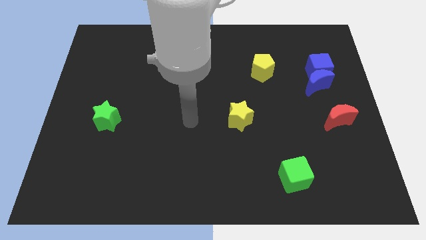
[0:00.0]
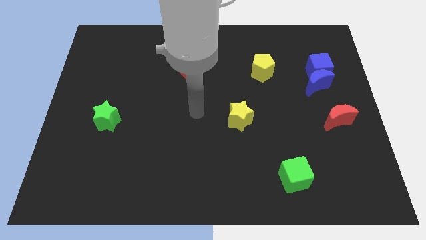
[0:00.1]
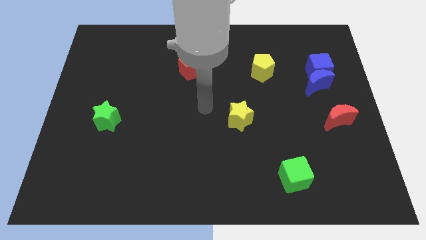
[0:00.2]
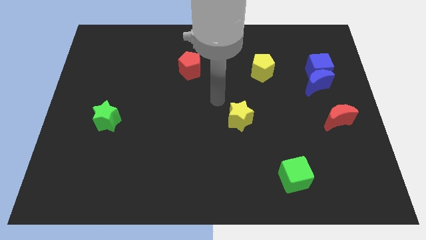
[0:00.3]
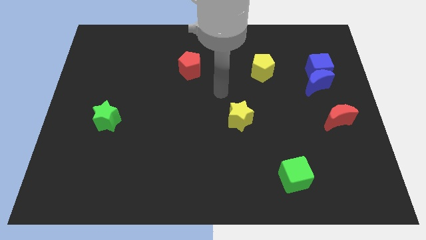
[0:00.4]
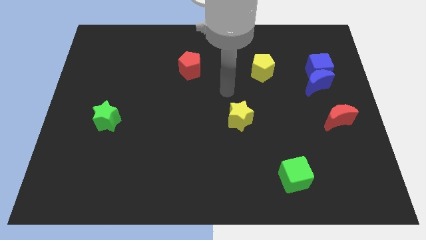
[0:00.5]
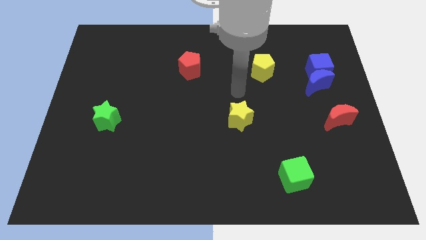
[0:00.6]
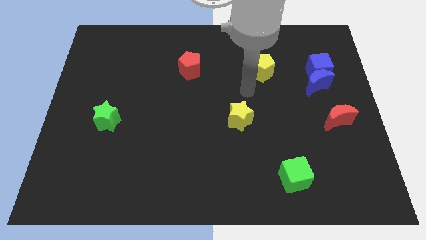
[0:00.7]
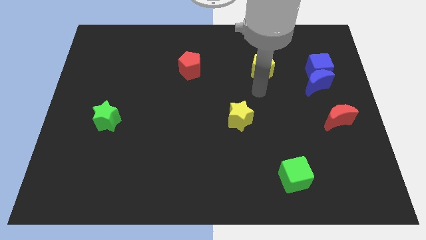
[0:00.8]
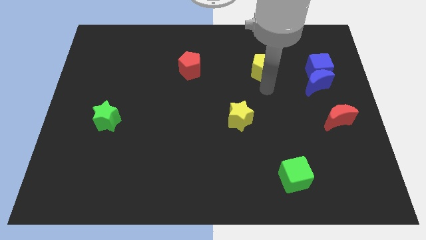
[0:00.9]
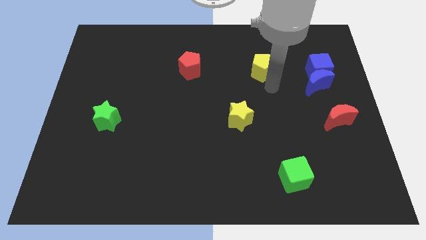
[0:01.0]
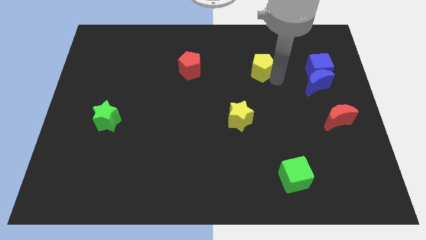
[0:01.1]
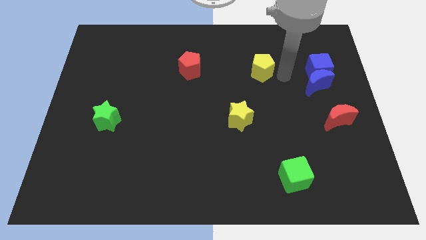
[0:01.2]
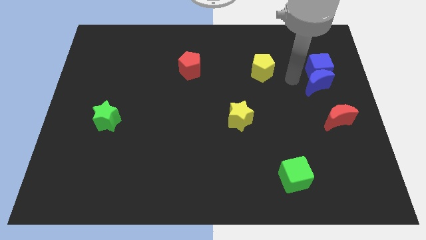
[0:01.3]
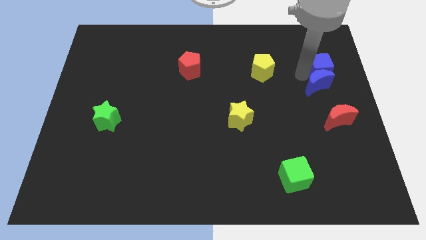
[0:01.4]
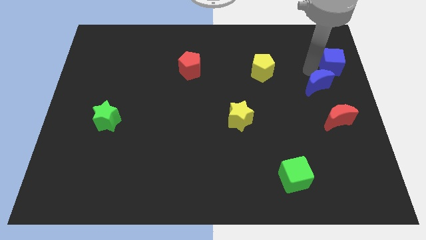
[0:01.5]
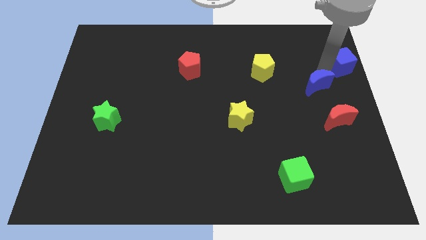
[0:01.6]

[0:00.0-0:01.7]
separate the blue moon from the blue cube

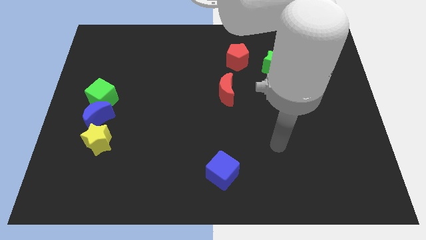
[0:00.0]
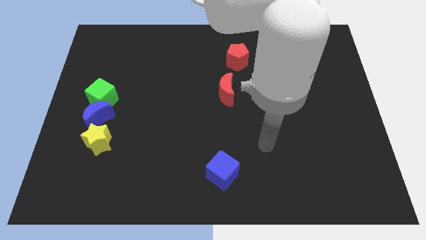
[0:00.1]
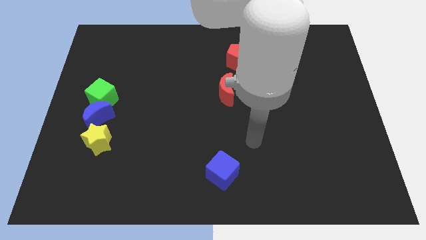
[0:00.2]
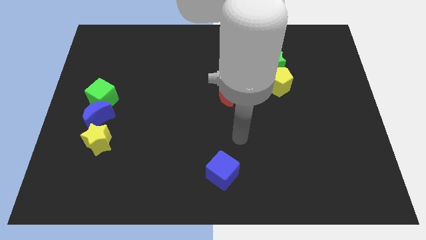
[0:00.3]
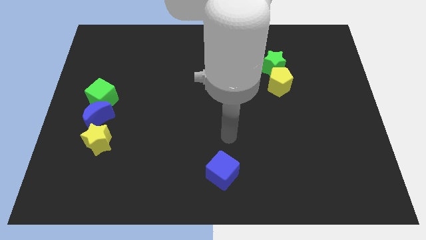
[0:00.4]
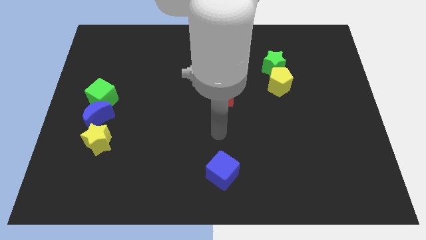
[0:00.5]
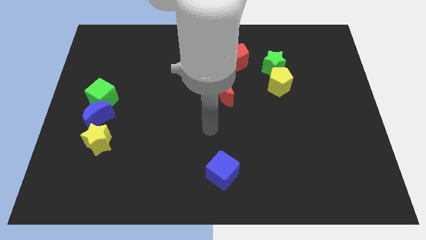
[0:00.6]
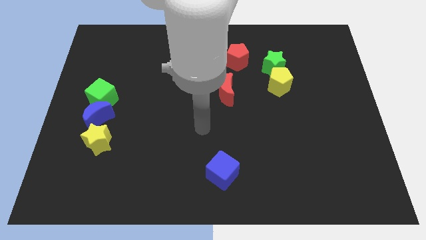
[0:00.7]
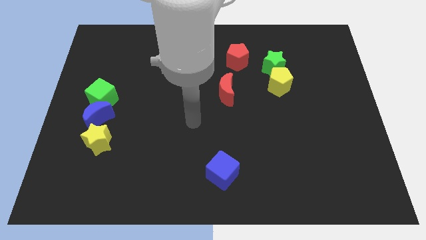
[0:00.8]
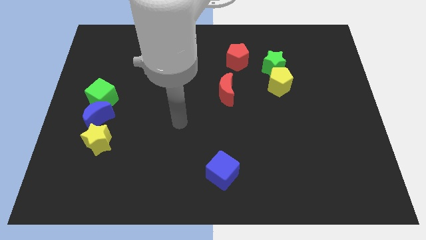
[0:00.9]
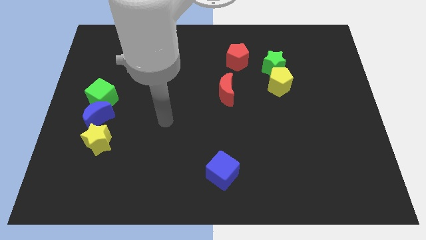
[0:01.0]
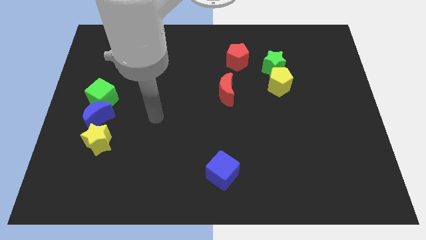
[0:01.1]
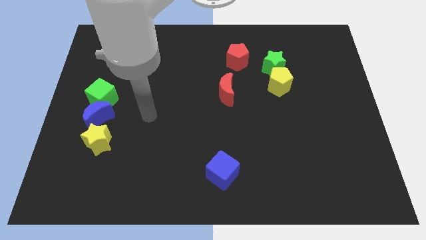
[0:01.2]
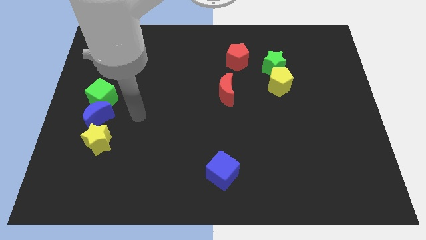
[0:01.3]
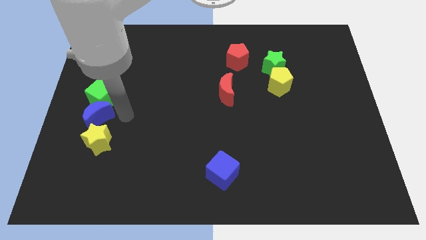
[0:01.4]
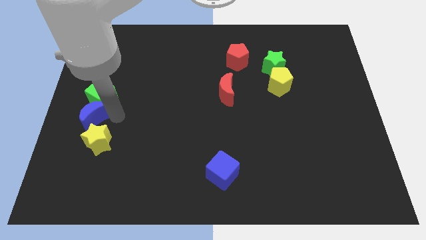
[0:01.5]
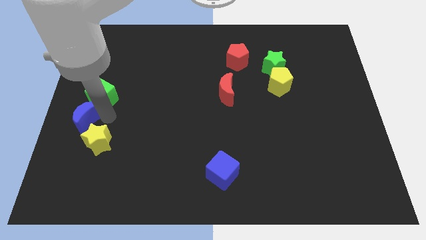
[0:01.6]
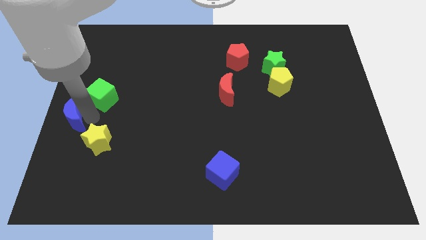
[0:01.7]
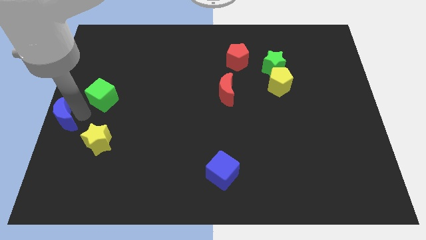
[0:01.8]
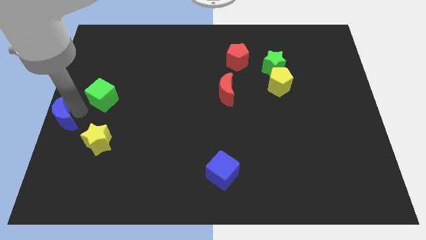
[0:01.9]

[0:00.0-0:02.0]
move the green cube away from the blue moon

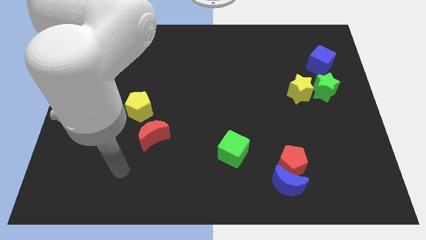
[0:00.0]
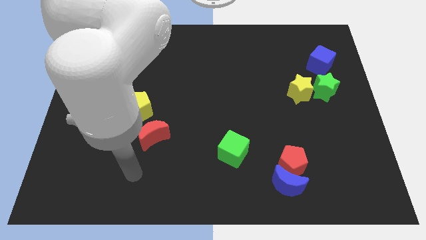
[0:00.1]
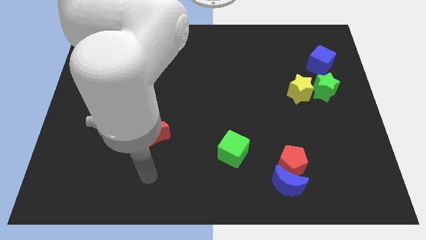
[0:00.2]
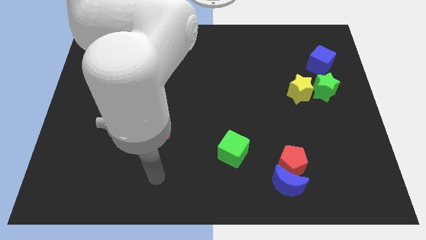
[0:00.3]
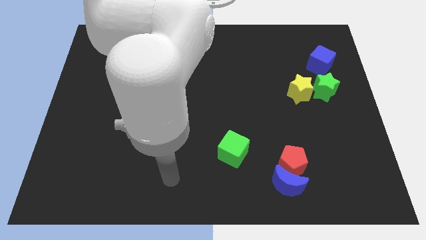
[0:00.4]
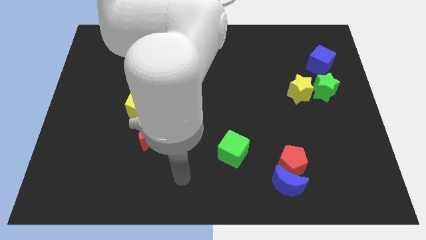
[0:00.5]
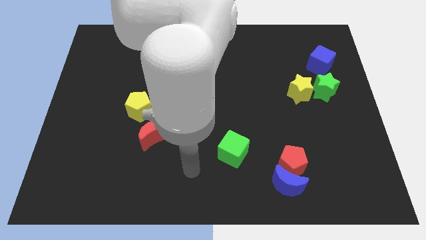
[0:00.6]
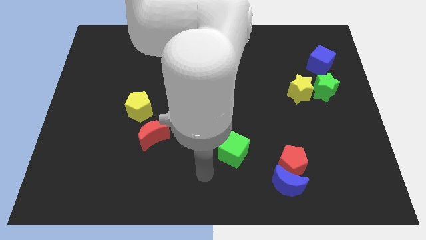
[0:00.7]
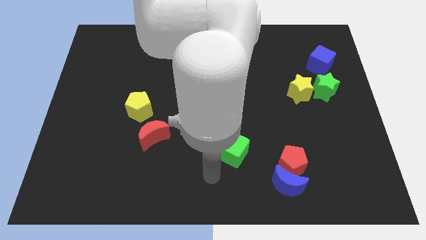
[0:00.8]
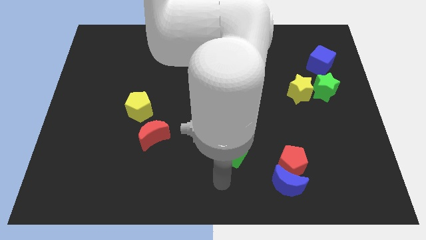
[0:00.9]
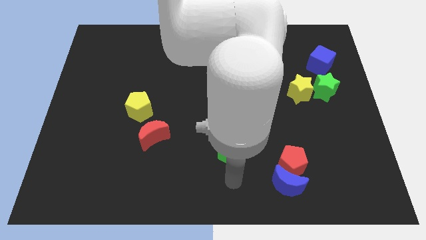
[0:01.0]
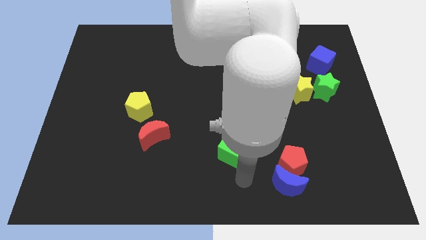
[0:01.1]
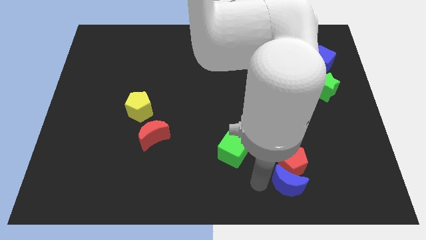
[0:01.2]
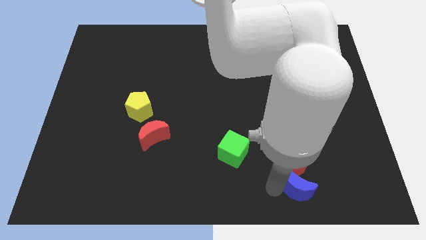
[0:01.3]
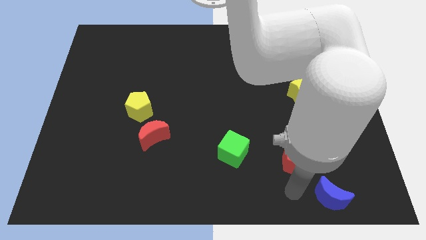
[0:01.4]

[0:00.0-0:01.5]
pull the red pentagon apart from the blue moon

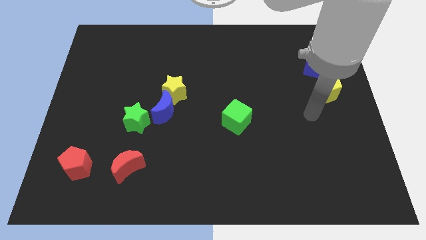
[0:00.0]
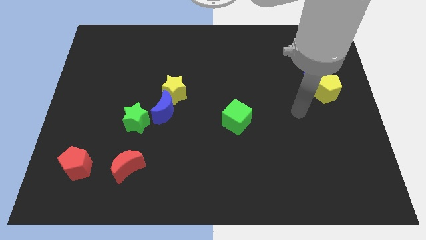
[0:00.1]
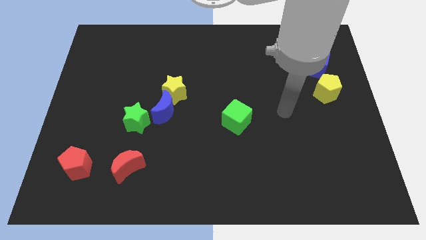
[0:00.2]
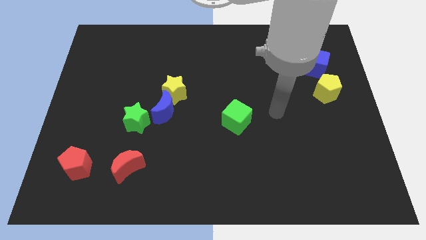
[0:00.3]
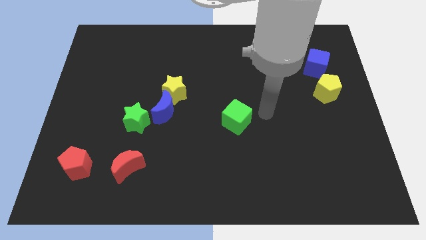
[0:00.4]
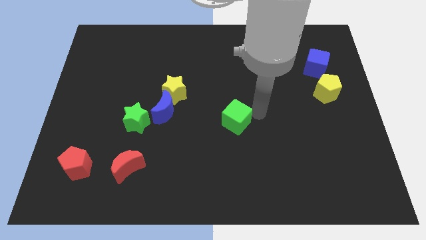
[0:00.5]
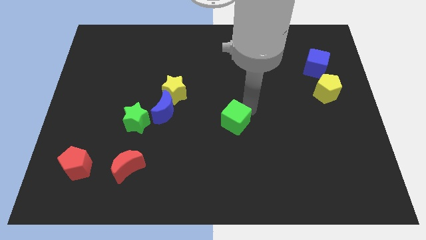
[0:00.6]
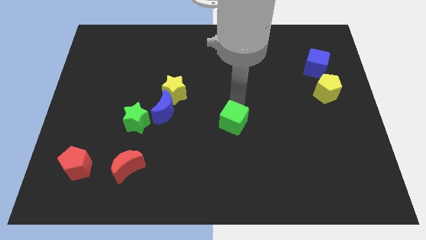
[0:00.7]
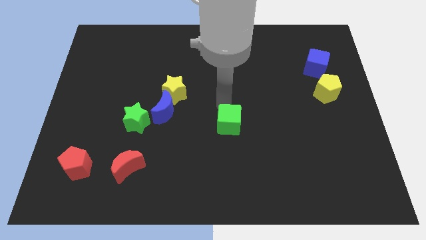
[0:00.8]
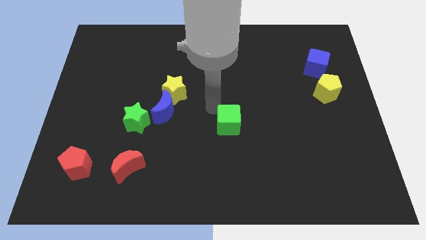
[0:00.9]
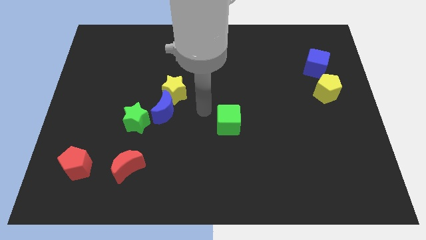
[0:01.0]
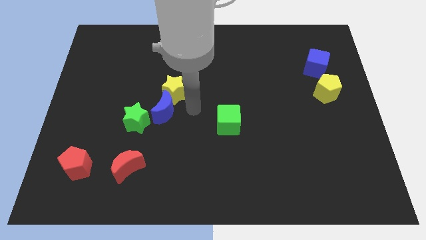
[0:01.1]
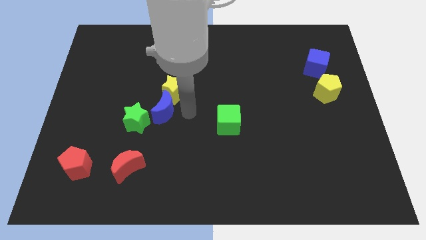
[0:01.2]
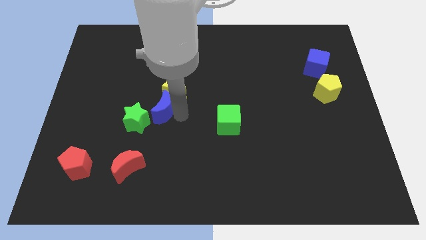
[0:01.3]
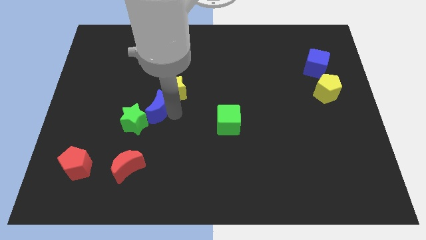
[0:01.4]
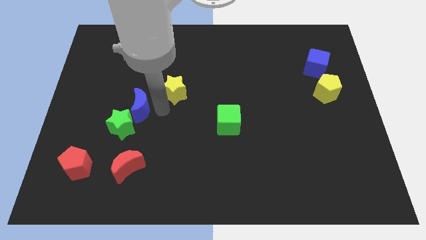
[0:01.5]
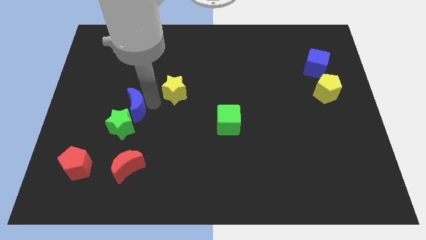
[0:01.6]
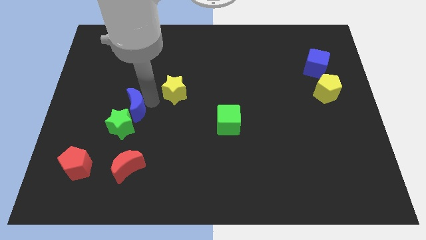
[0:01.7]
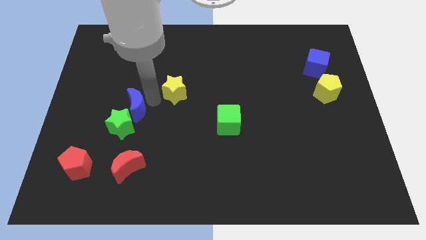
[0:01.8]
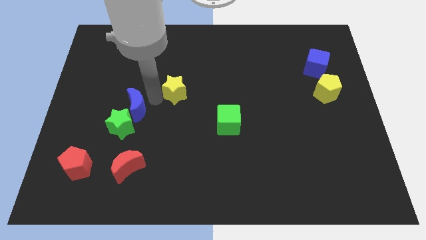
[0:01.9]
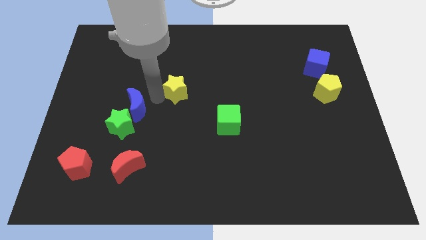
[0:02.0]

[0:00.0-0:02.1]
separate the yellow star from the blue moon

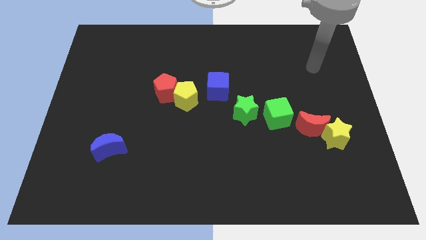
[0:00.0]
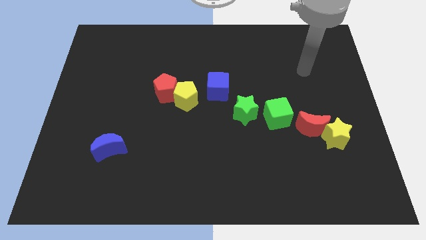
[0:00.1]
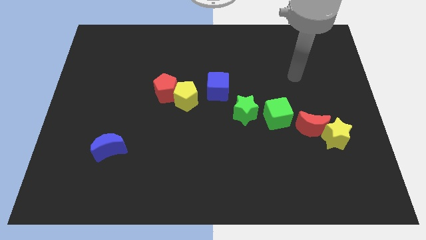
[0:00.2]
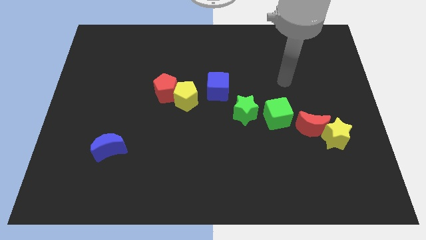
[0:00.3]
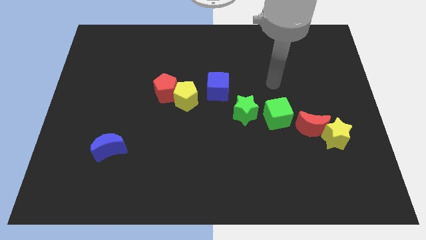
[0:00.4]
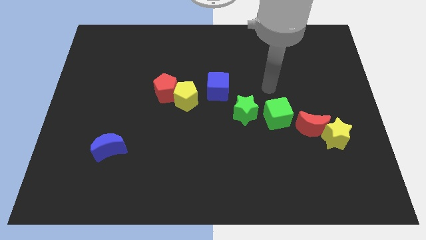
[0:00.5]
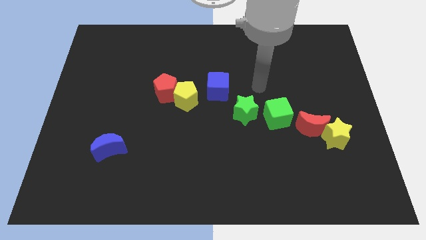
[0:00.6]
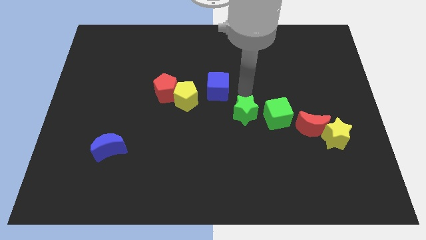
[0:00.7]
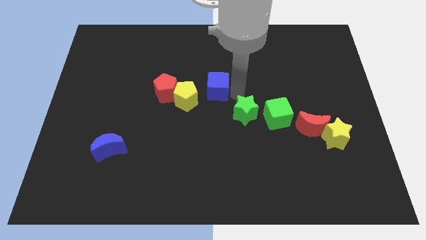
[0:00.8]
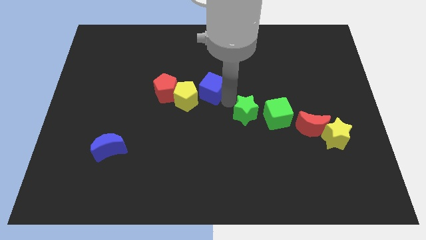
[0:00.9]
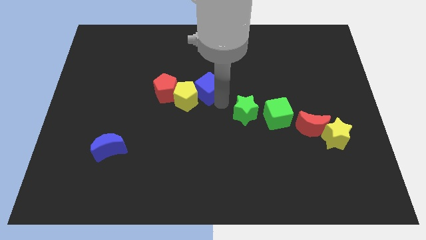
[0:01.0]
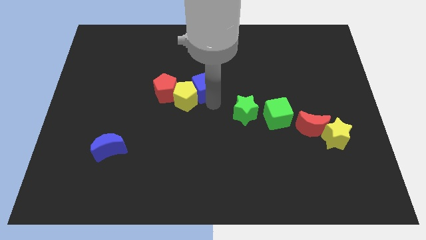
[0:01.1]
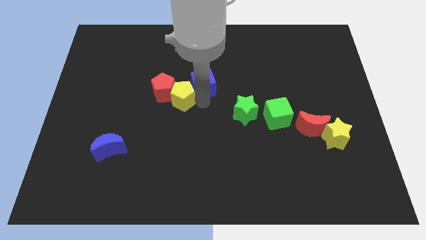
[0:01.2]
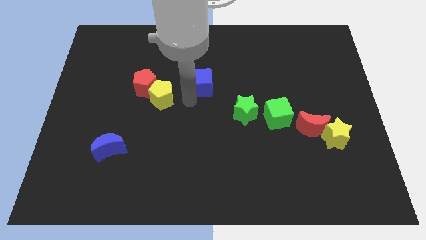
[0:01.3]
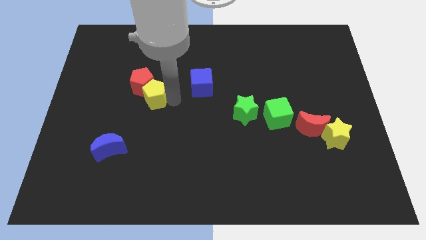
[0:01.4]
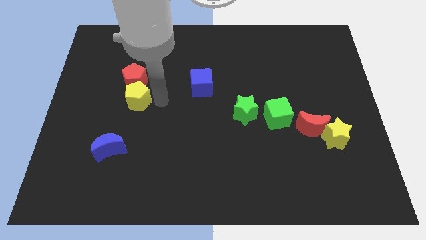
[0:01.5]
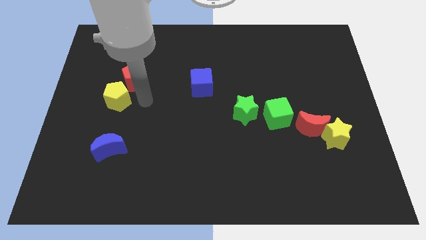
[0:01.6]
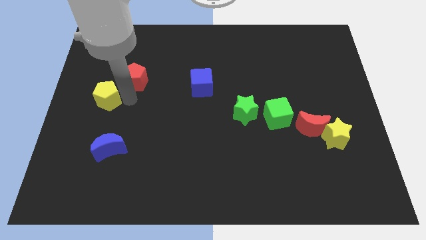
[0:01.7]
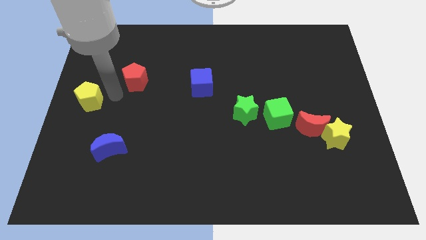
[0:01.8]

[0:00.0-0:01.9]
move the red pentagon away from the yellow pentagon

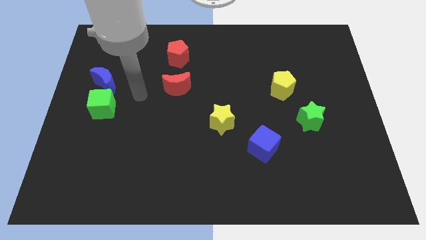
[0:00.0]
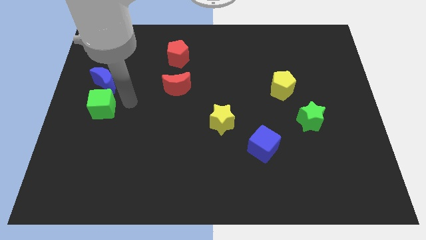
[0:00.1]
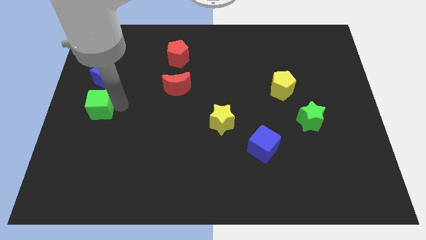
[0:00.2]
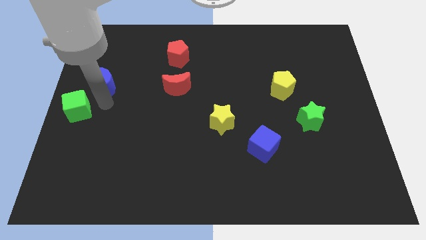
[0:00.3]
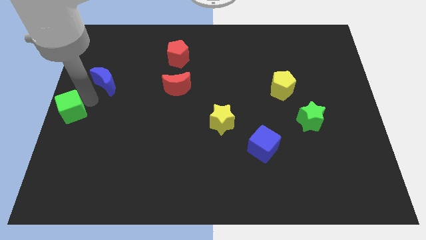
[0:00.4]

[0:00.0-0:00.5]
separate the blue moon from the green cube
